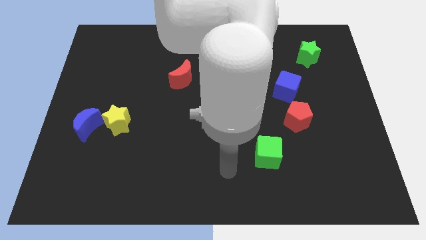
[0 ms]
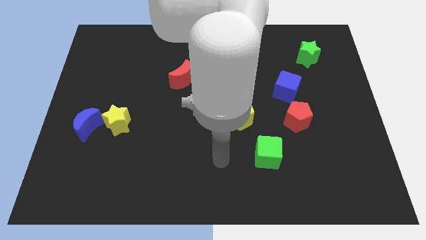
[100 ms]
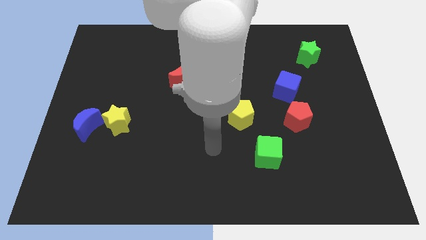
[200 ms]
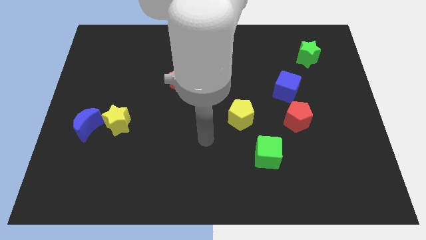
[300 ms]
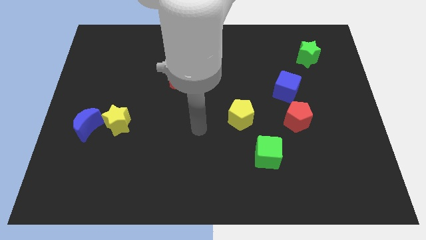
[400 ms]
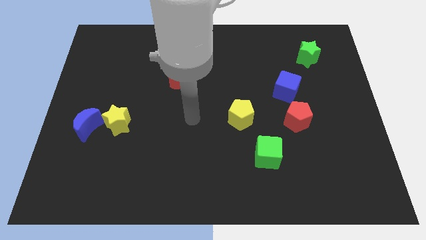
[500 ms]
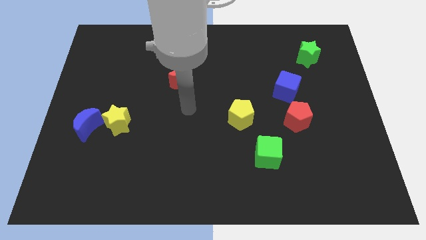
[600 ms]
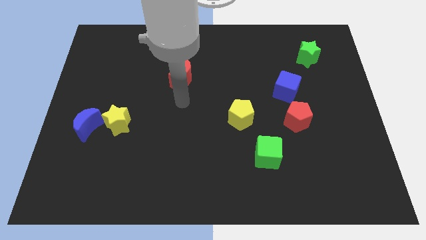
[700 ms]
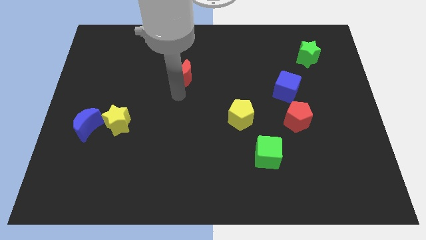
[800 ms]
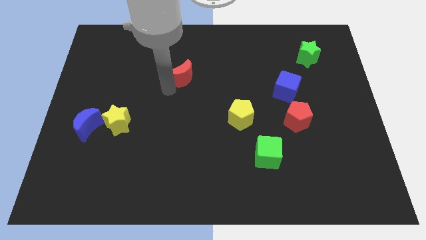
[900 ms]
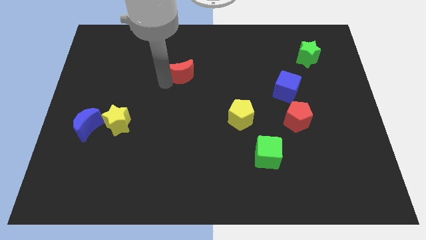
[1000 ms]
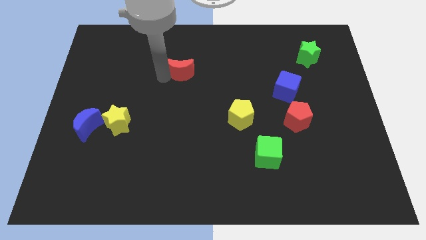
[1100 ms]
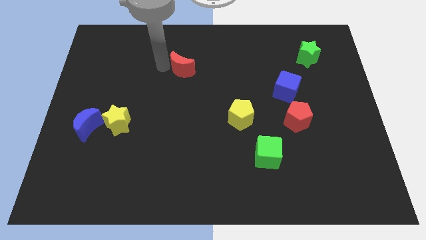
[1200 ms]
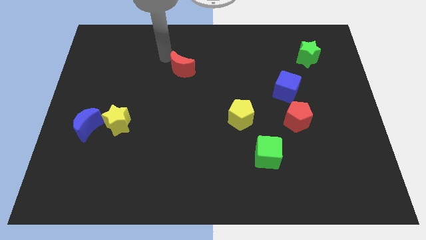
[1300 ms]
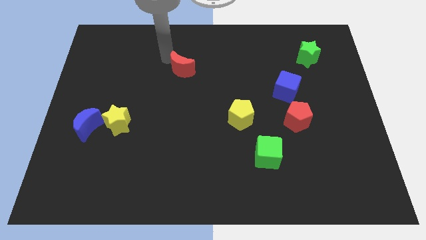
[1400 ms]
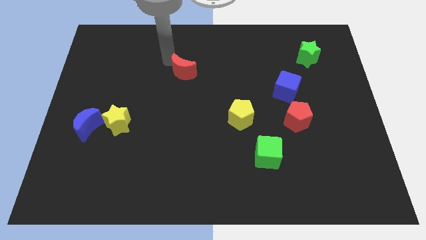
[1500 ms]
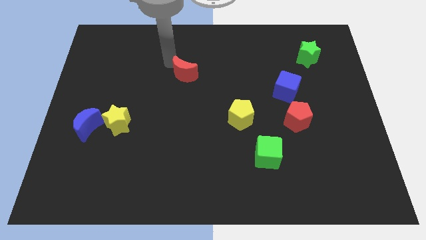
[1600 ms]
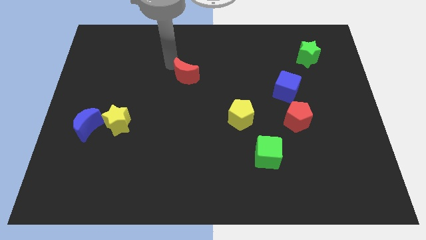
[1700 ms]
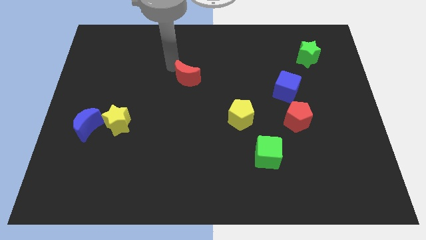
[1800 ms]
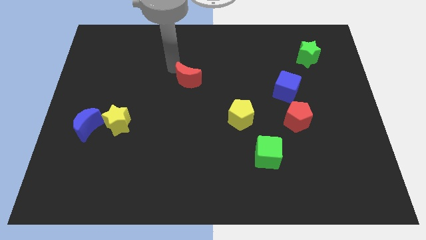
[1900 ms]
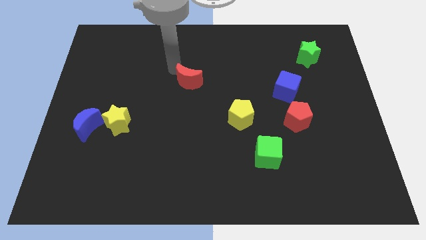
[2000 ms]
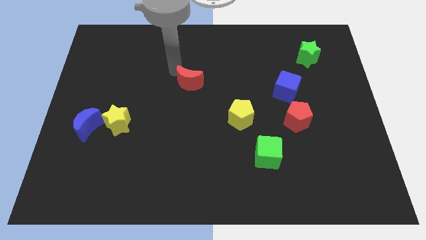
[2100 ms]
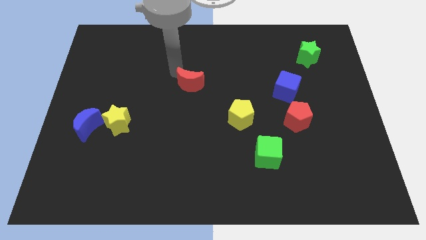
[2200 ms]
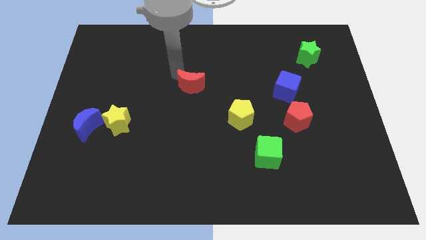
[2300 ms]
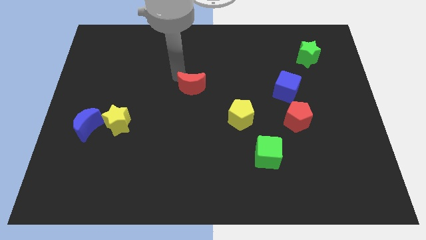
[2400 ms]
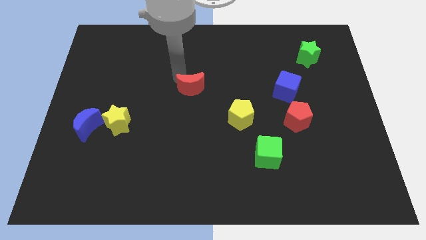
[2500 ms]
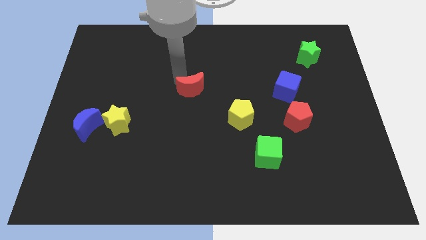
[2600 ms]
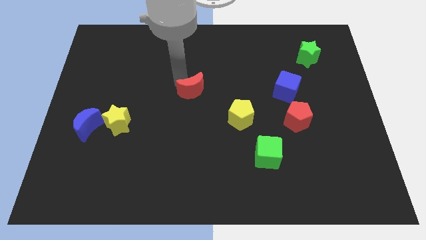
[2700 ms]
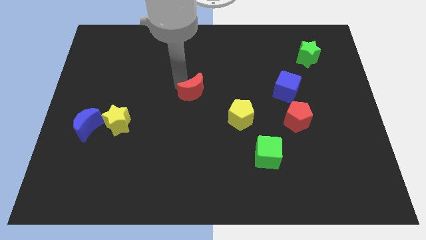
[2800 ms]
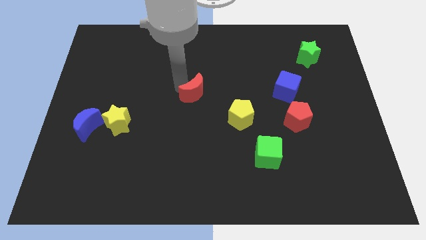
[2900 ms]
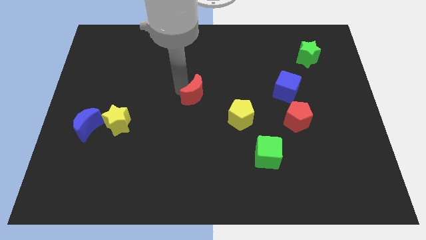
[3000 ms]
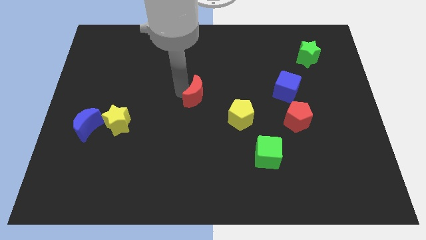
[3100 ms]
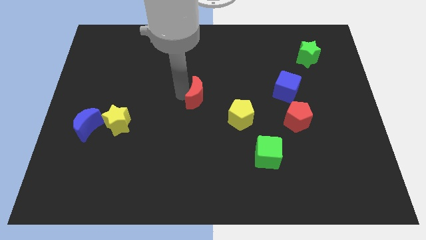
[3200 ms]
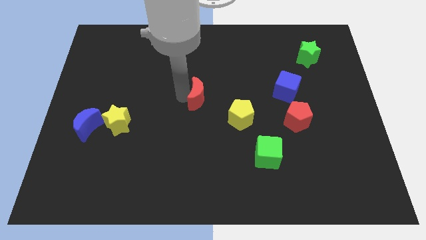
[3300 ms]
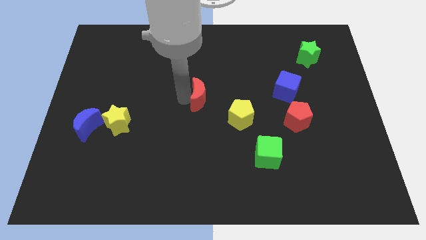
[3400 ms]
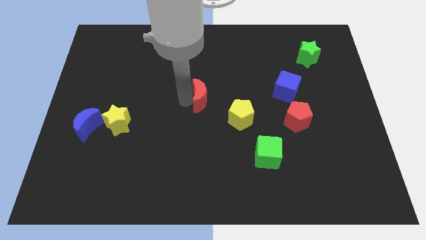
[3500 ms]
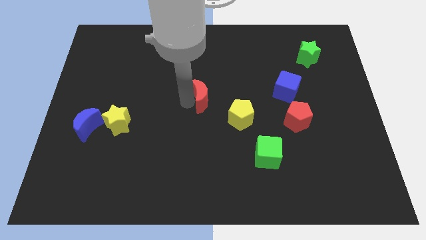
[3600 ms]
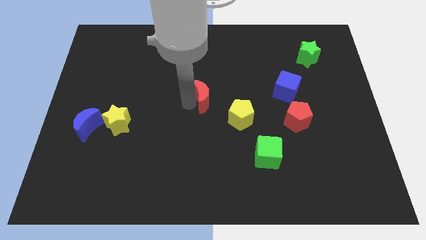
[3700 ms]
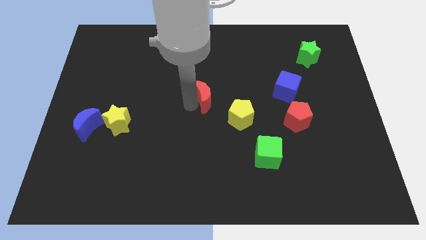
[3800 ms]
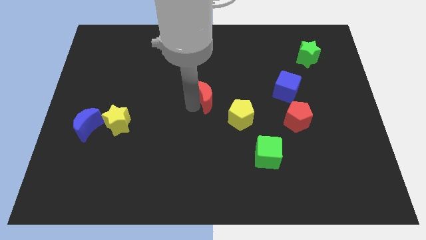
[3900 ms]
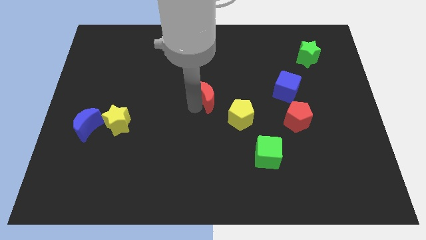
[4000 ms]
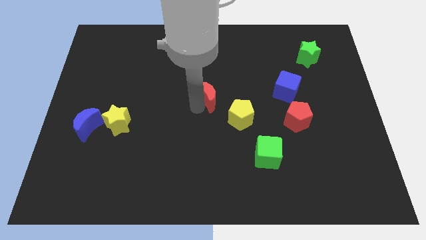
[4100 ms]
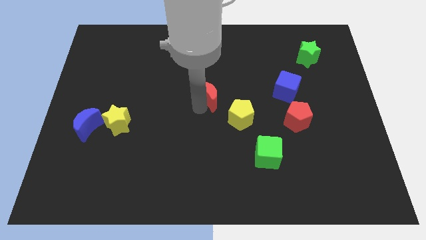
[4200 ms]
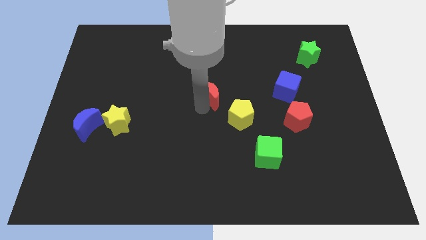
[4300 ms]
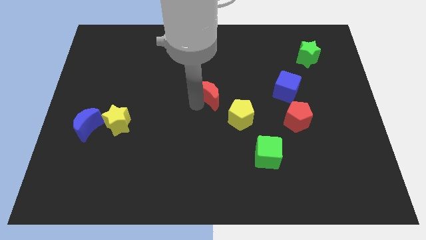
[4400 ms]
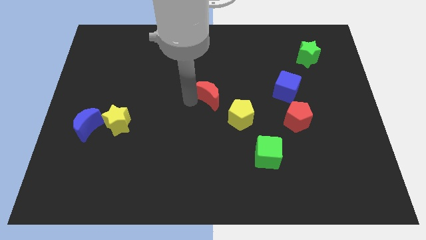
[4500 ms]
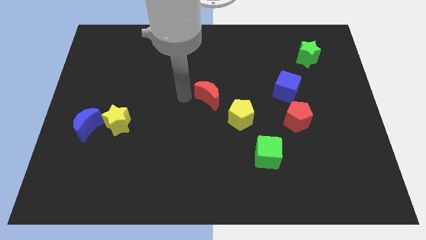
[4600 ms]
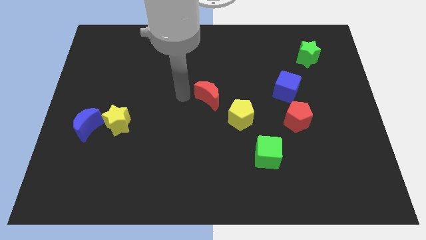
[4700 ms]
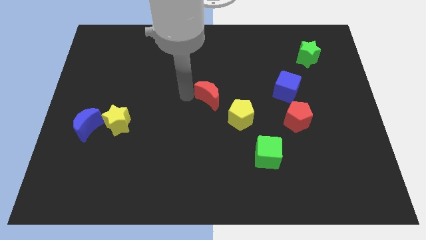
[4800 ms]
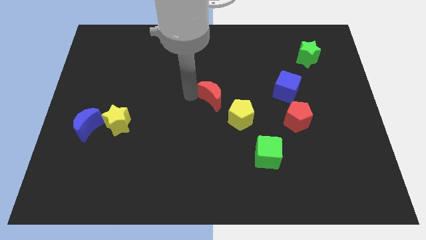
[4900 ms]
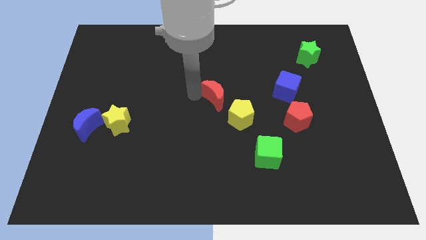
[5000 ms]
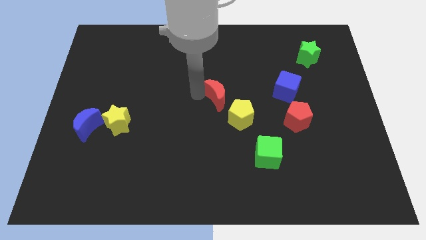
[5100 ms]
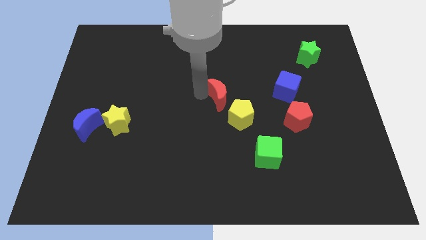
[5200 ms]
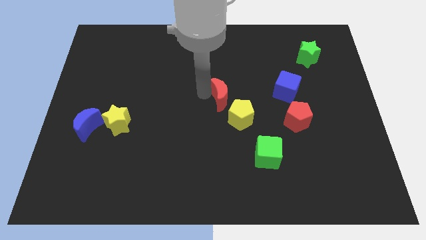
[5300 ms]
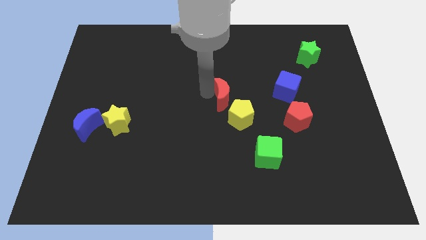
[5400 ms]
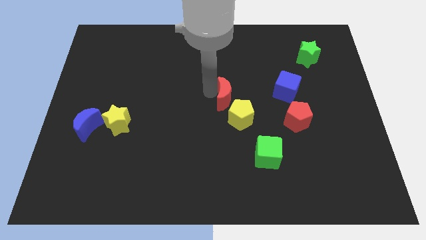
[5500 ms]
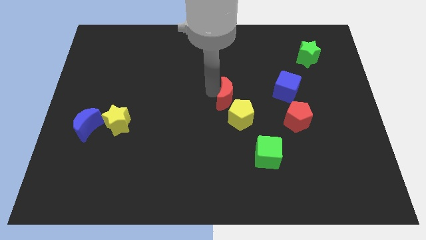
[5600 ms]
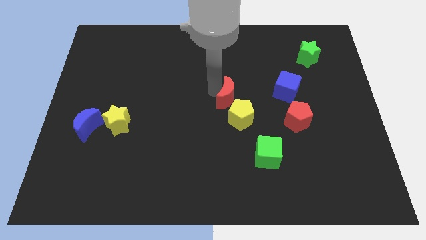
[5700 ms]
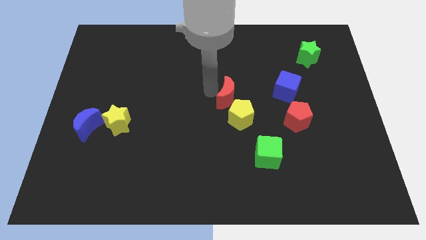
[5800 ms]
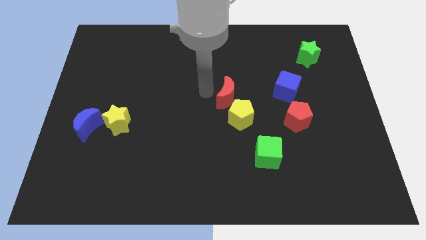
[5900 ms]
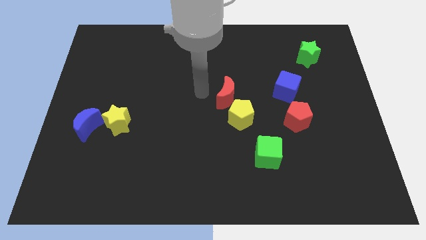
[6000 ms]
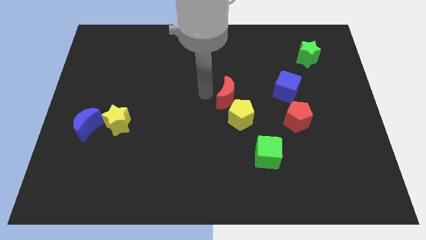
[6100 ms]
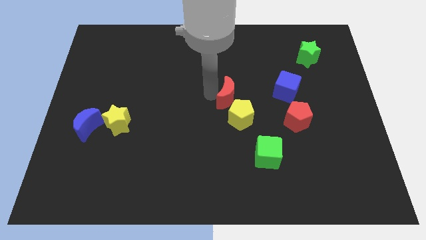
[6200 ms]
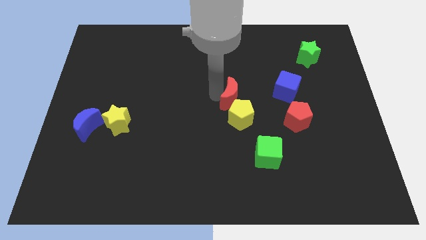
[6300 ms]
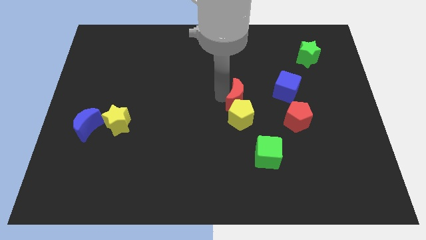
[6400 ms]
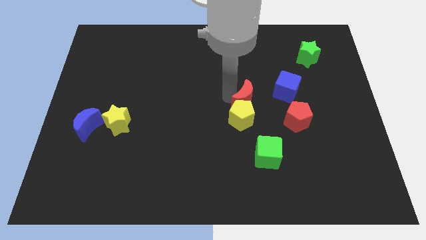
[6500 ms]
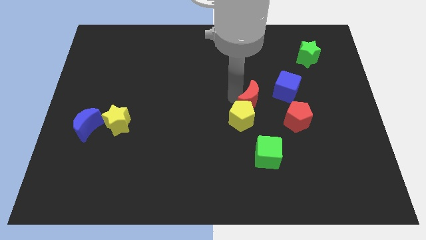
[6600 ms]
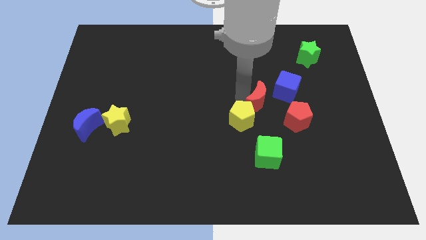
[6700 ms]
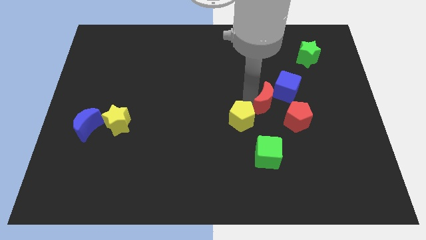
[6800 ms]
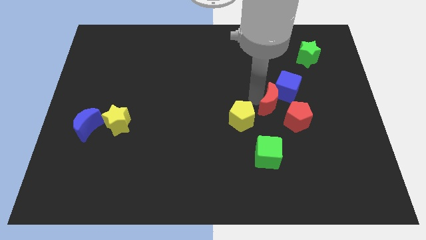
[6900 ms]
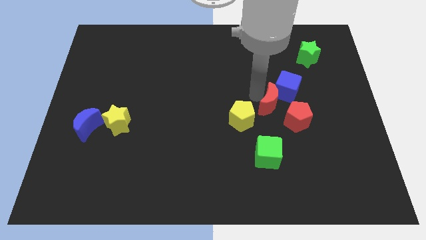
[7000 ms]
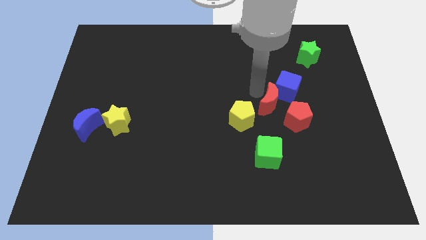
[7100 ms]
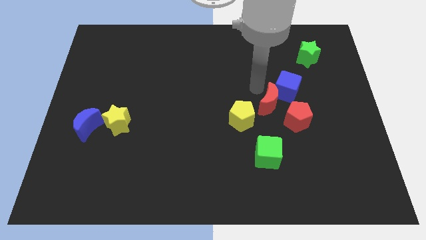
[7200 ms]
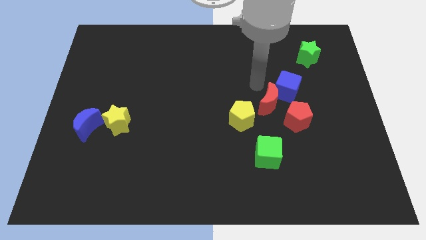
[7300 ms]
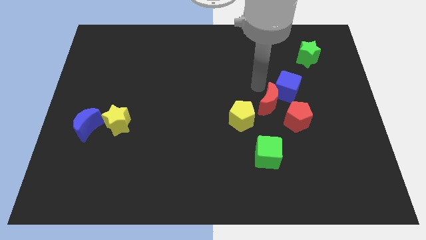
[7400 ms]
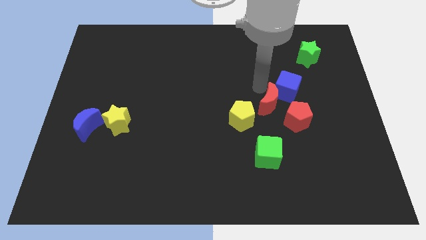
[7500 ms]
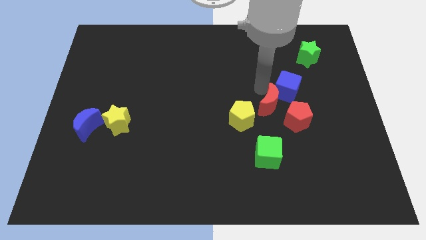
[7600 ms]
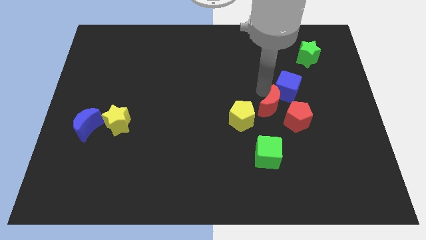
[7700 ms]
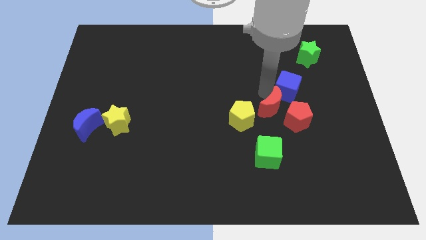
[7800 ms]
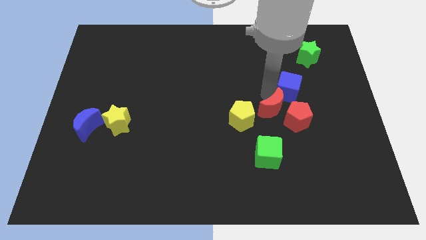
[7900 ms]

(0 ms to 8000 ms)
slide the red moon towards the red pentagon
